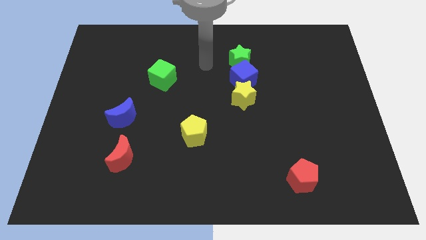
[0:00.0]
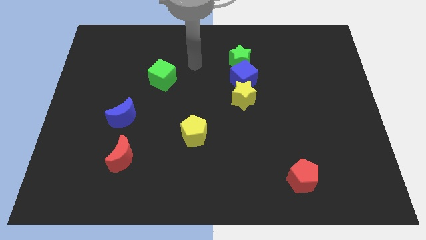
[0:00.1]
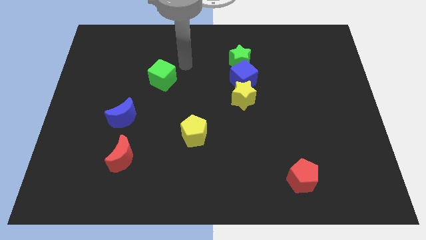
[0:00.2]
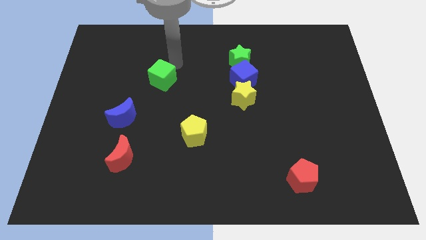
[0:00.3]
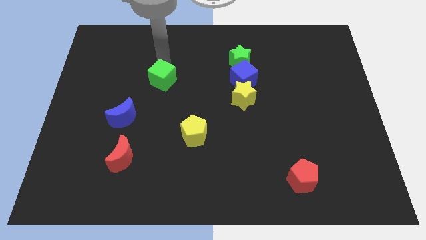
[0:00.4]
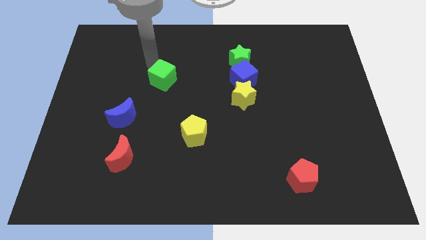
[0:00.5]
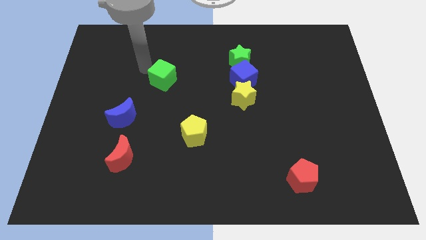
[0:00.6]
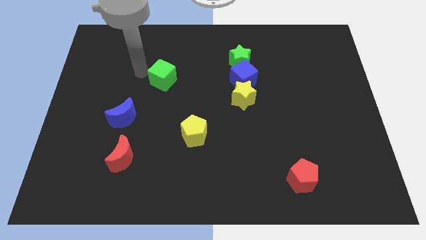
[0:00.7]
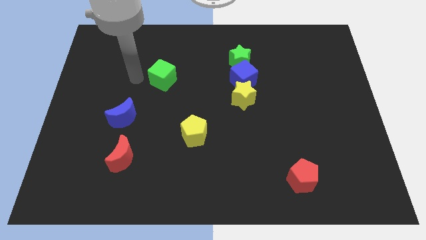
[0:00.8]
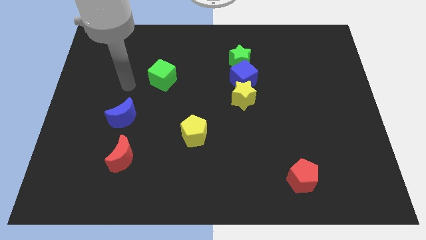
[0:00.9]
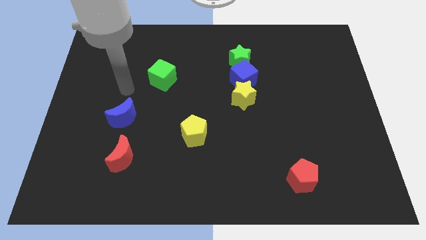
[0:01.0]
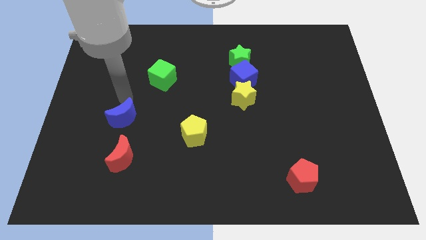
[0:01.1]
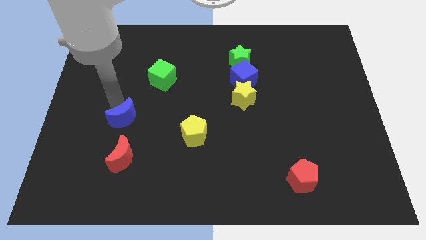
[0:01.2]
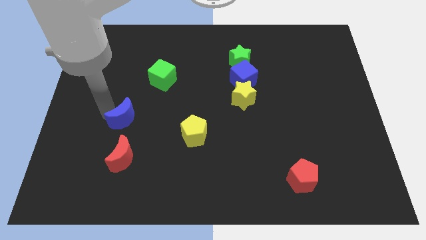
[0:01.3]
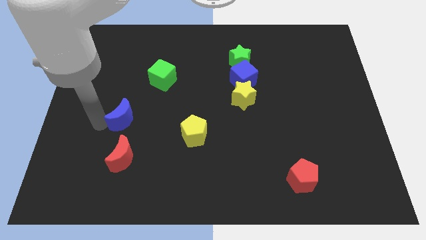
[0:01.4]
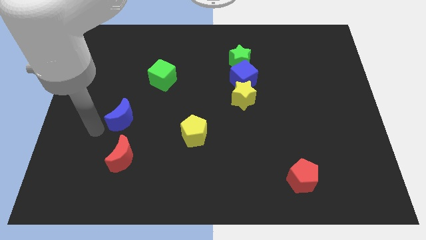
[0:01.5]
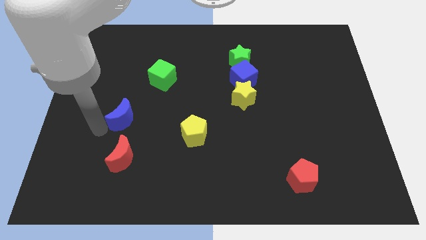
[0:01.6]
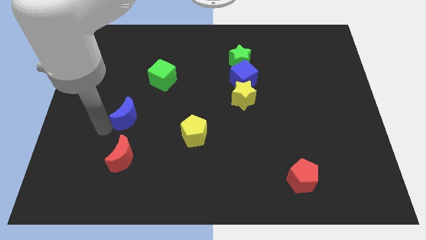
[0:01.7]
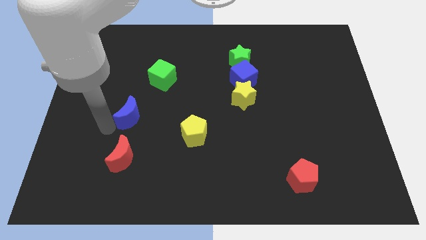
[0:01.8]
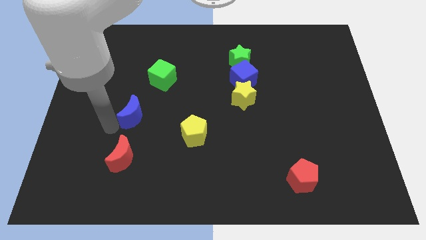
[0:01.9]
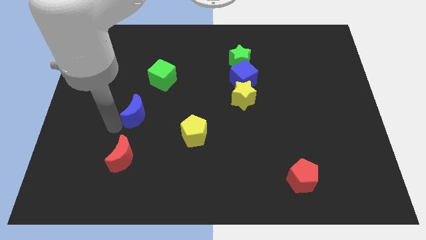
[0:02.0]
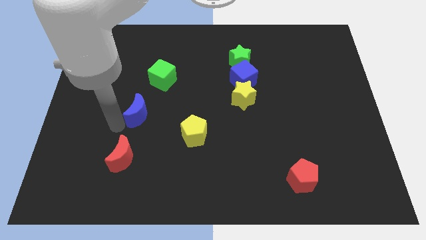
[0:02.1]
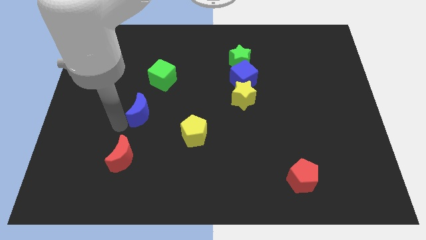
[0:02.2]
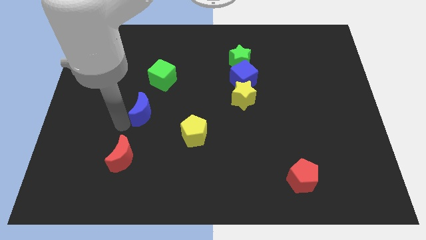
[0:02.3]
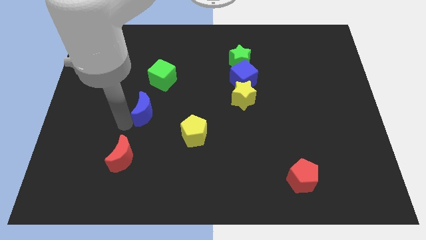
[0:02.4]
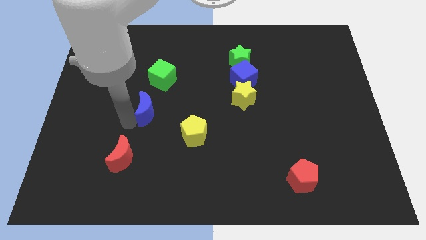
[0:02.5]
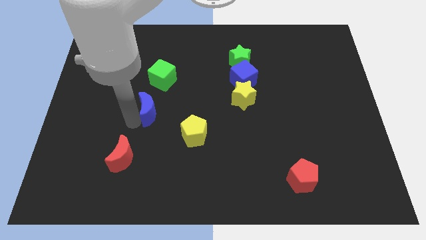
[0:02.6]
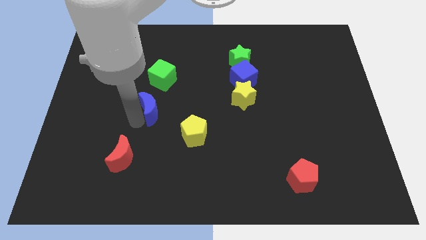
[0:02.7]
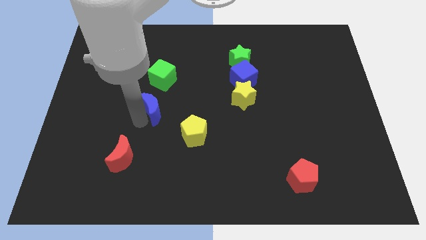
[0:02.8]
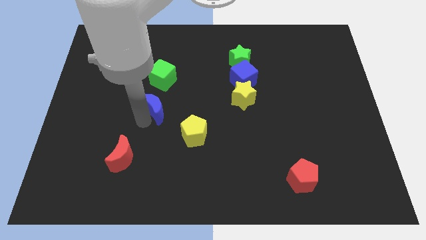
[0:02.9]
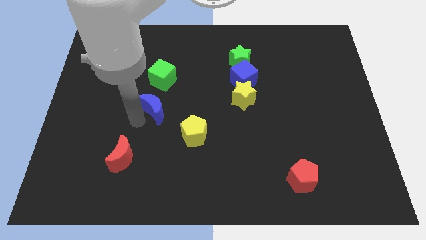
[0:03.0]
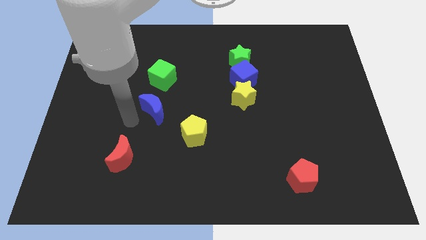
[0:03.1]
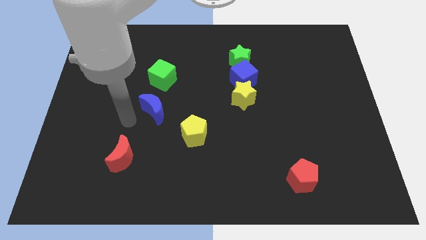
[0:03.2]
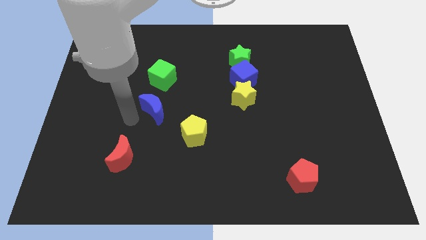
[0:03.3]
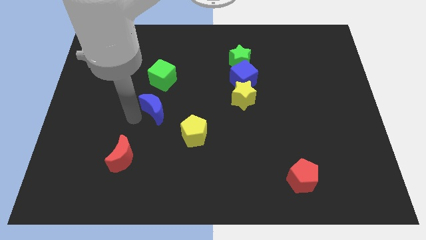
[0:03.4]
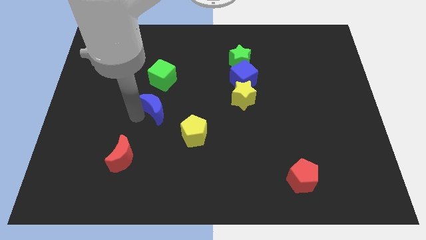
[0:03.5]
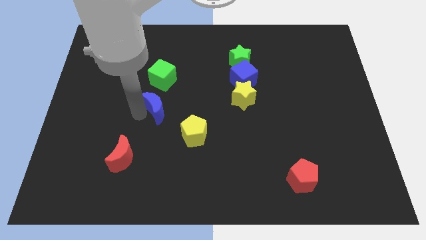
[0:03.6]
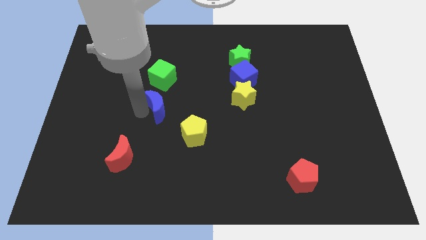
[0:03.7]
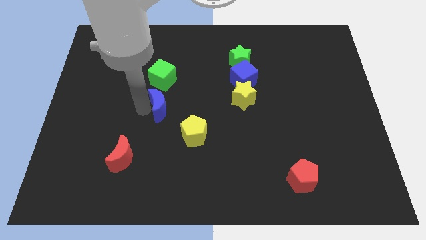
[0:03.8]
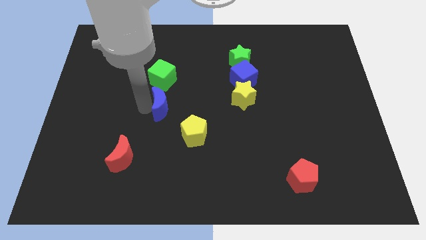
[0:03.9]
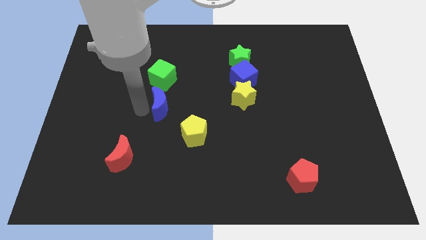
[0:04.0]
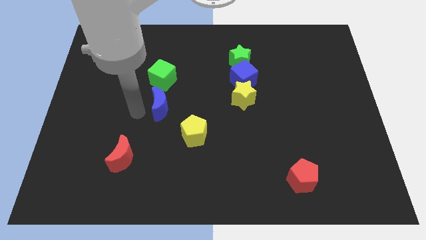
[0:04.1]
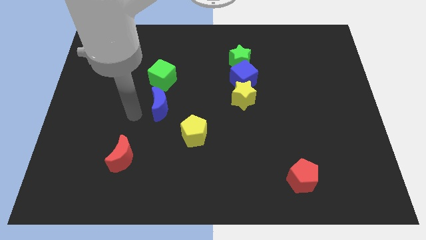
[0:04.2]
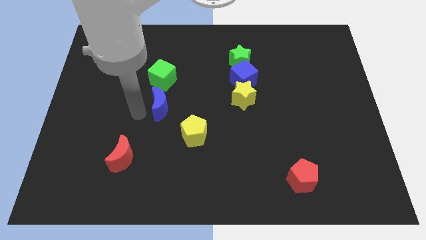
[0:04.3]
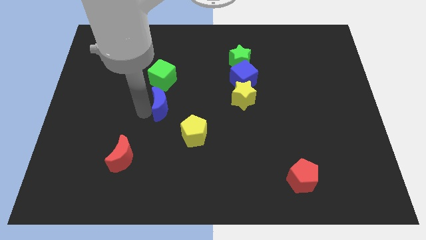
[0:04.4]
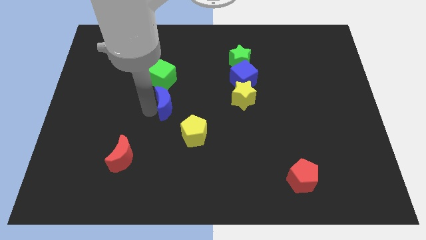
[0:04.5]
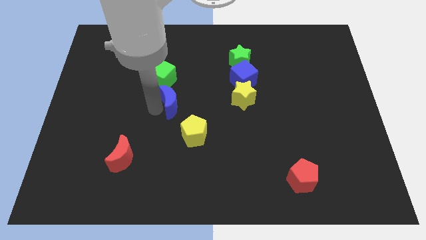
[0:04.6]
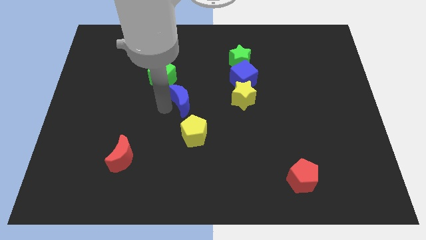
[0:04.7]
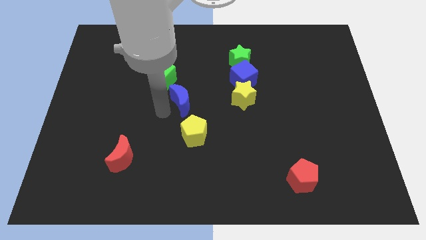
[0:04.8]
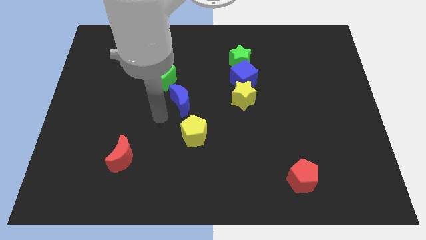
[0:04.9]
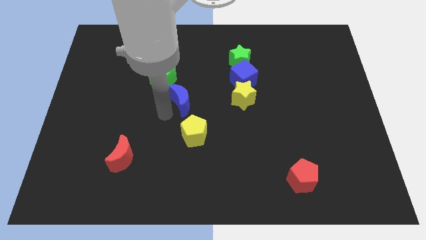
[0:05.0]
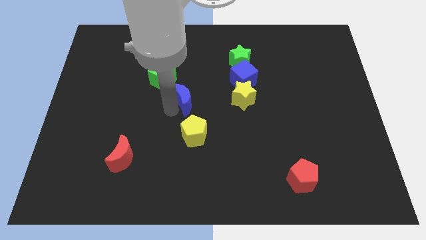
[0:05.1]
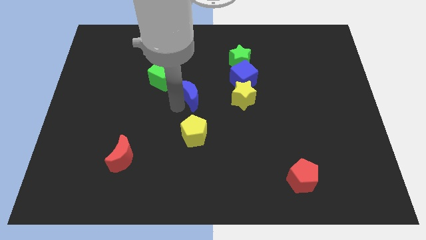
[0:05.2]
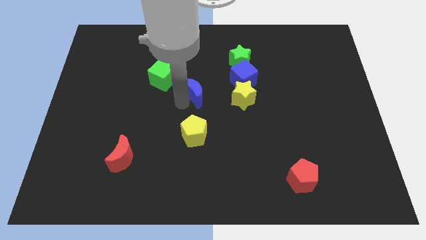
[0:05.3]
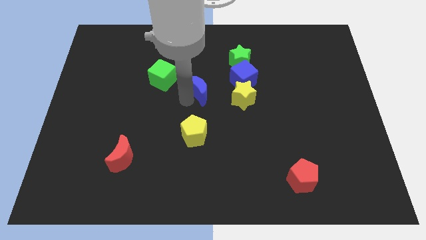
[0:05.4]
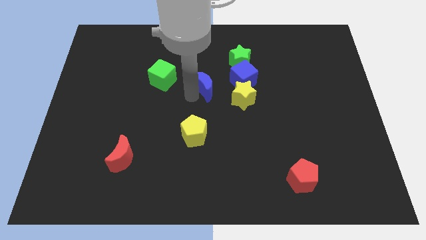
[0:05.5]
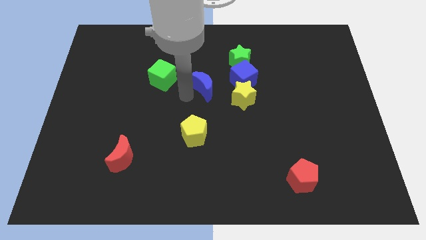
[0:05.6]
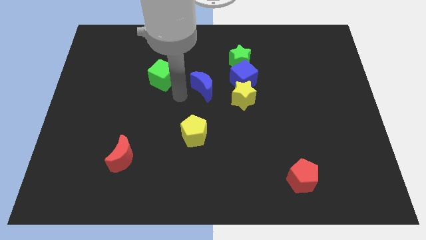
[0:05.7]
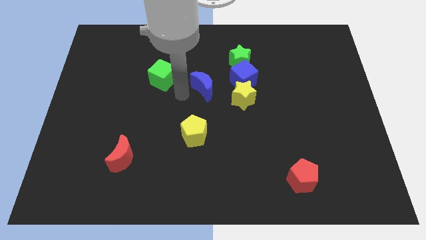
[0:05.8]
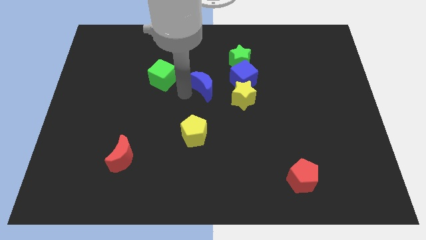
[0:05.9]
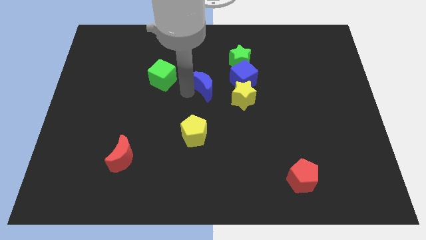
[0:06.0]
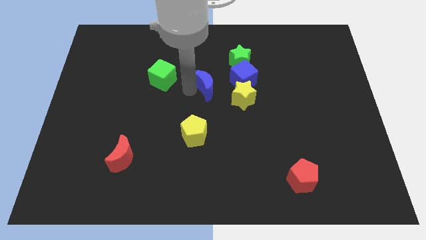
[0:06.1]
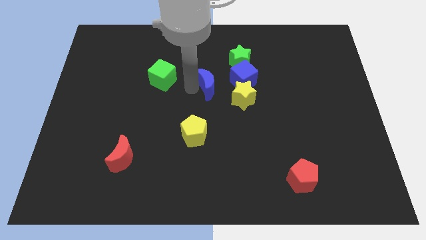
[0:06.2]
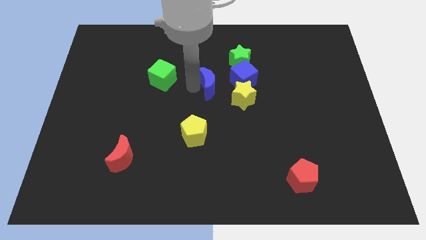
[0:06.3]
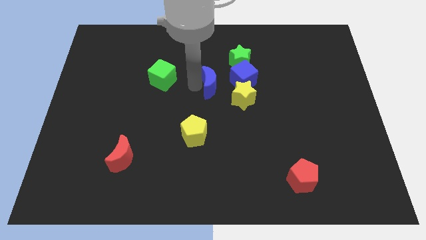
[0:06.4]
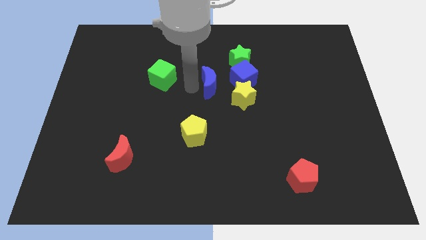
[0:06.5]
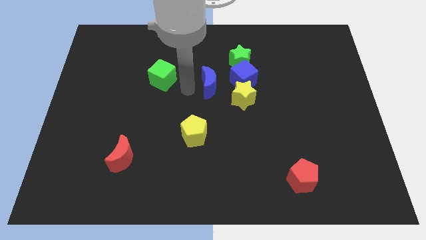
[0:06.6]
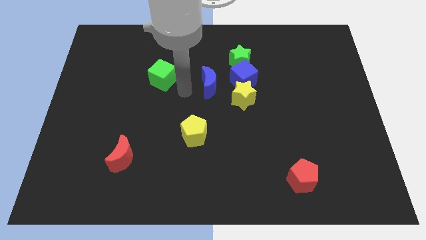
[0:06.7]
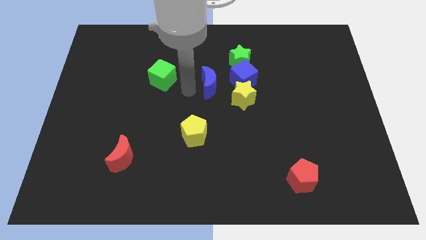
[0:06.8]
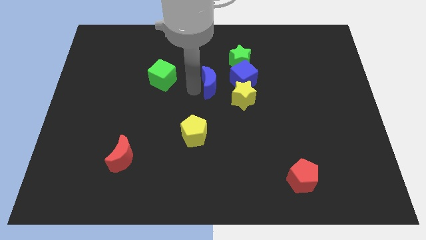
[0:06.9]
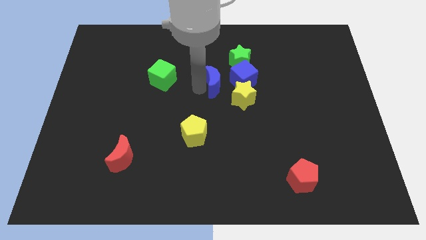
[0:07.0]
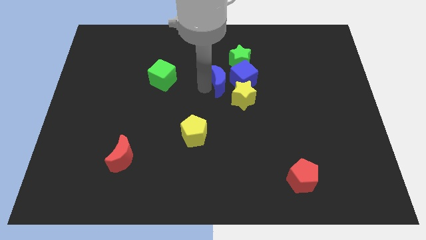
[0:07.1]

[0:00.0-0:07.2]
push the blue moon close to the blue cube
